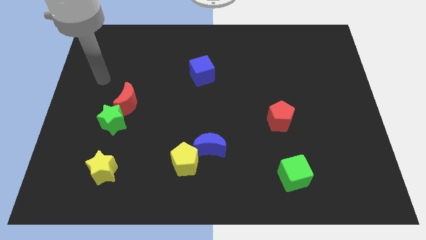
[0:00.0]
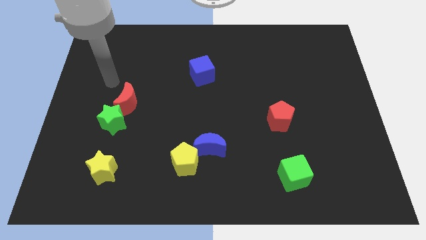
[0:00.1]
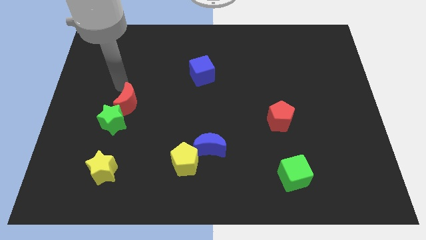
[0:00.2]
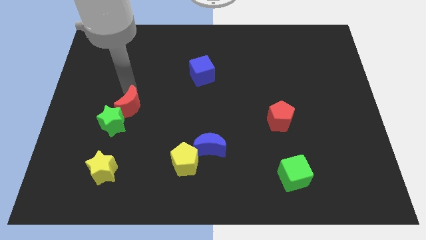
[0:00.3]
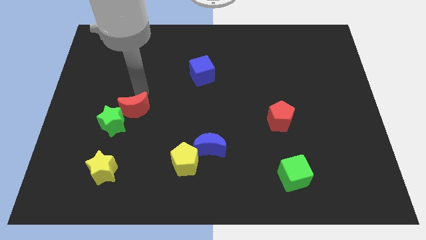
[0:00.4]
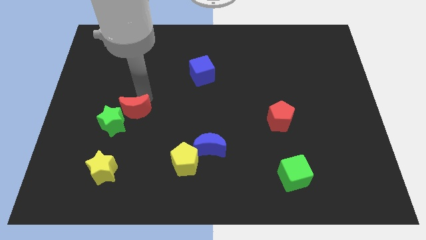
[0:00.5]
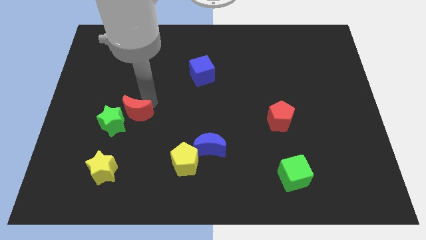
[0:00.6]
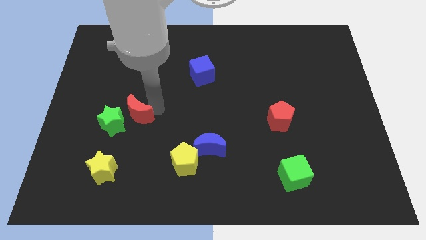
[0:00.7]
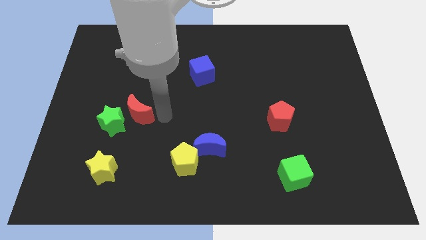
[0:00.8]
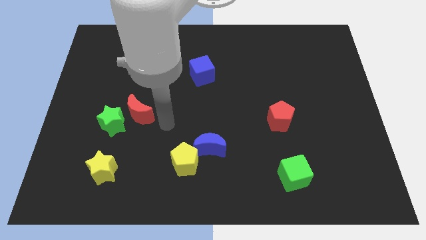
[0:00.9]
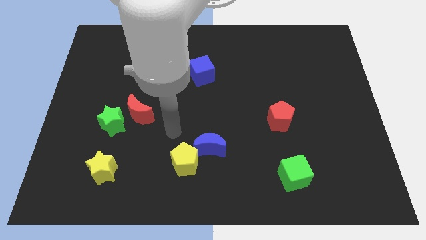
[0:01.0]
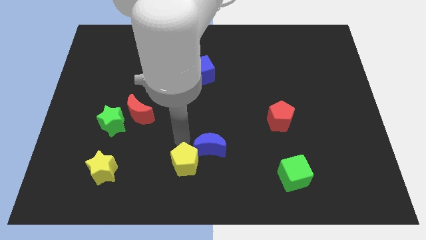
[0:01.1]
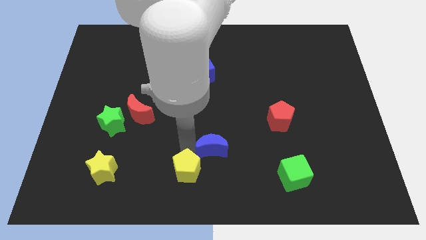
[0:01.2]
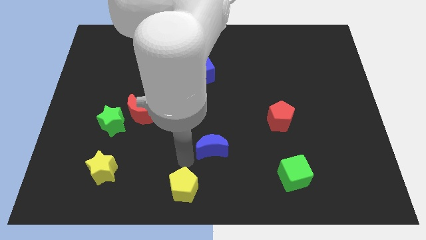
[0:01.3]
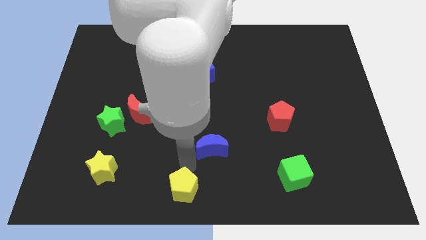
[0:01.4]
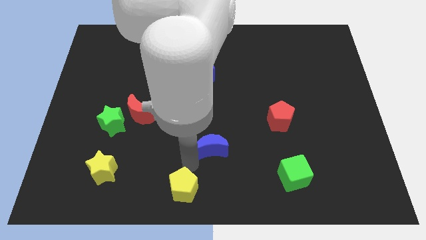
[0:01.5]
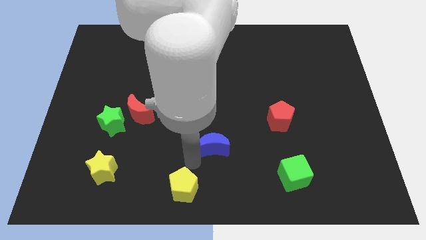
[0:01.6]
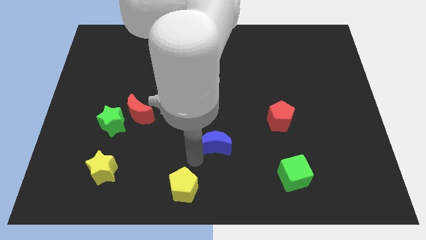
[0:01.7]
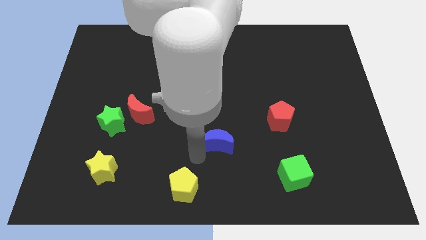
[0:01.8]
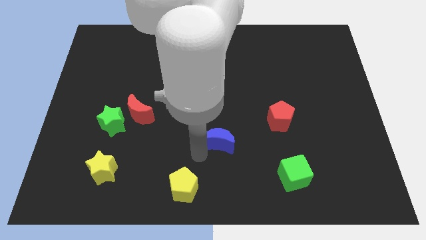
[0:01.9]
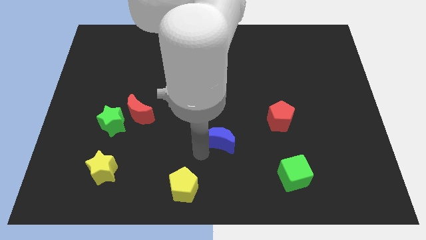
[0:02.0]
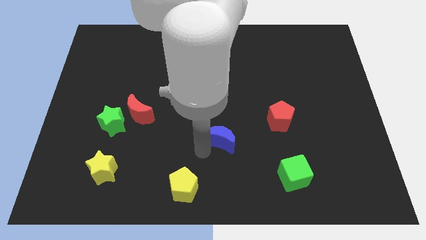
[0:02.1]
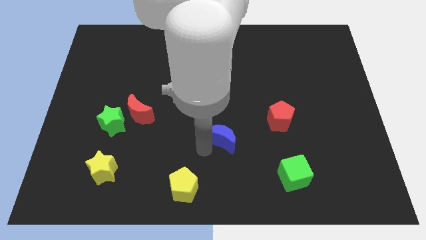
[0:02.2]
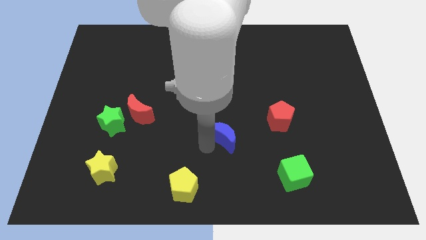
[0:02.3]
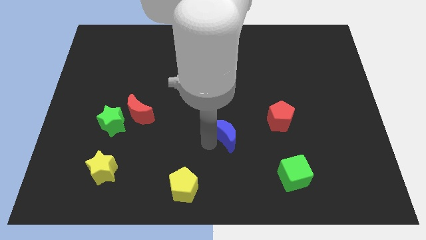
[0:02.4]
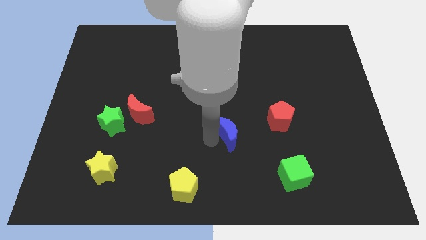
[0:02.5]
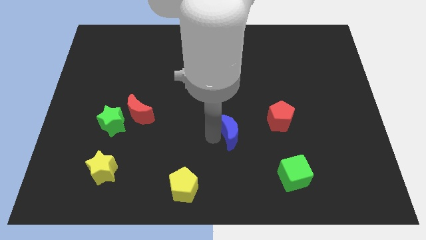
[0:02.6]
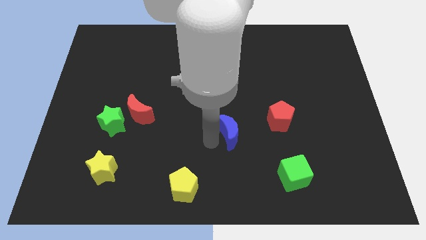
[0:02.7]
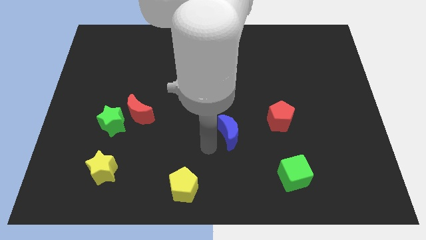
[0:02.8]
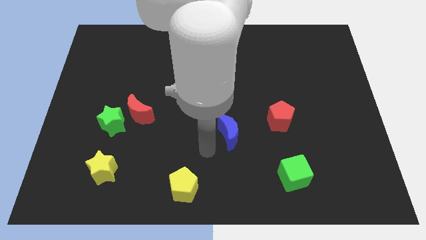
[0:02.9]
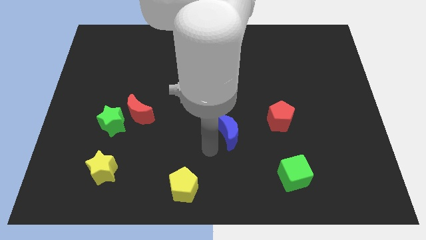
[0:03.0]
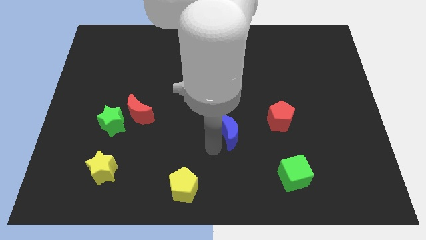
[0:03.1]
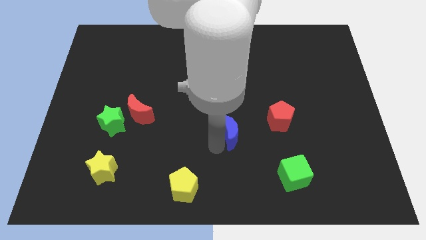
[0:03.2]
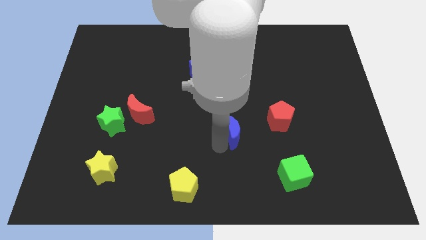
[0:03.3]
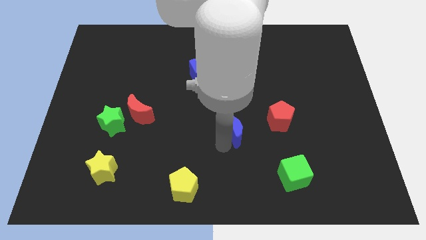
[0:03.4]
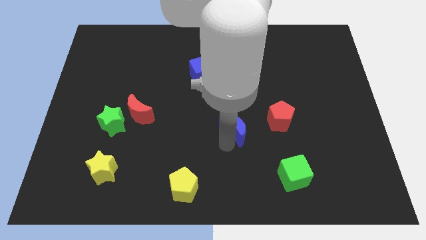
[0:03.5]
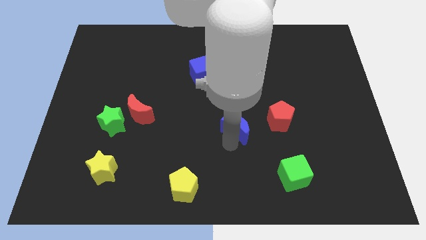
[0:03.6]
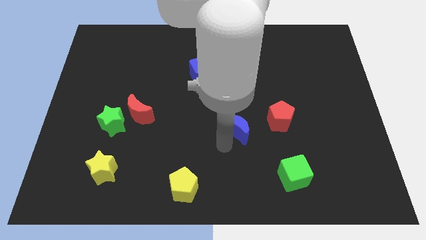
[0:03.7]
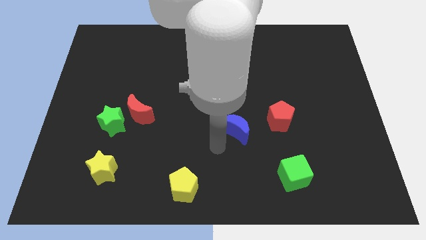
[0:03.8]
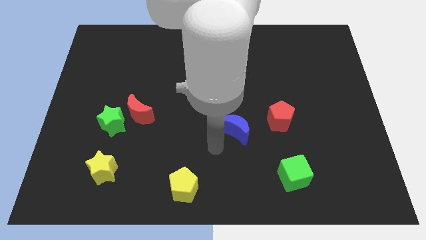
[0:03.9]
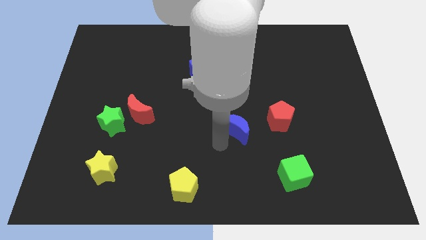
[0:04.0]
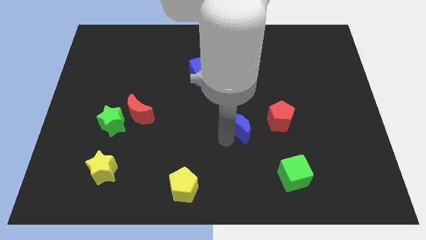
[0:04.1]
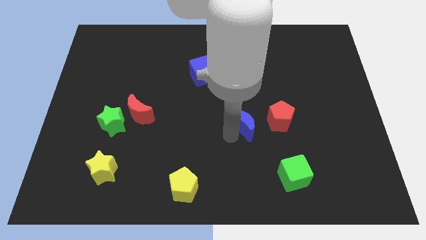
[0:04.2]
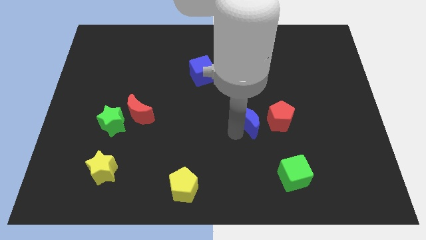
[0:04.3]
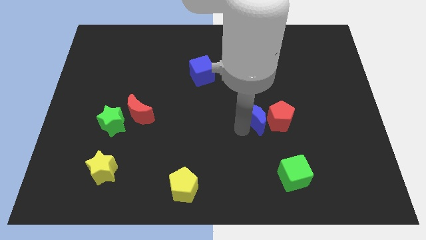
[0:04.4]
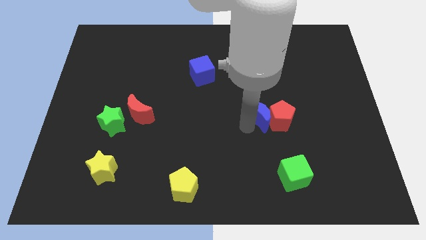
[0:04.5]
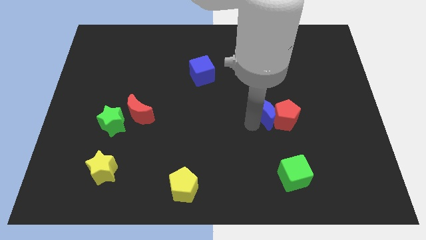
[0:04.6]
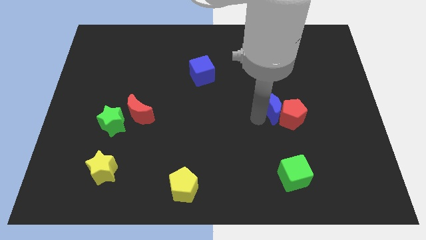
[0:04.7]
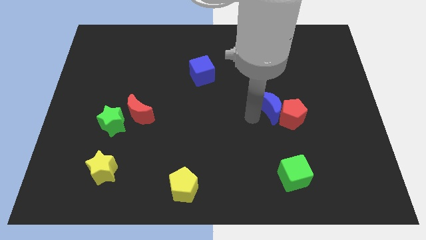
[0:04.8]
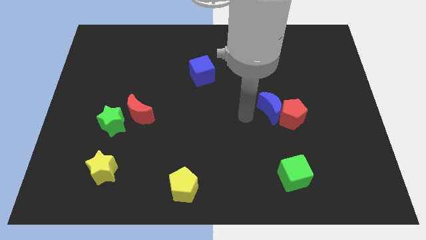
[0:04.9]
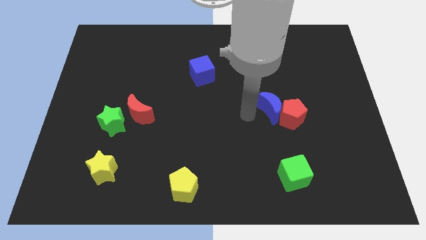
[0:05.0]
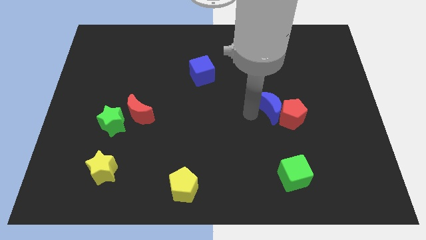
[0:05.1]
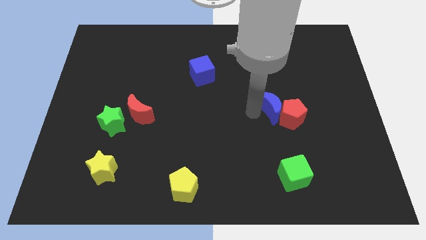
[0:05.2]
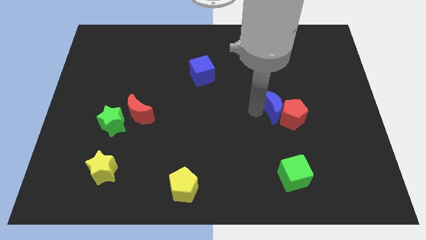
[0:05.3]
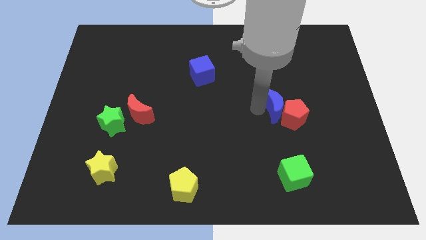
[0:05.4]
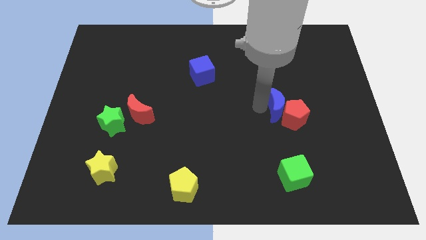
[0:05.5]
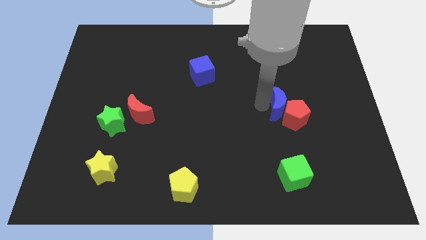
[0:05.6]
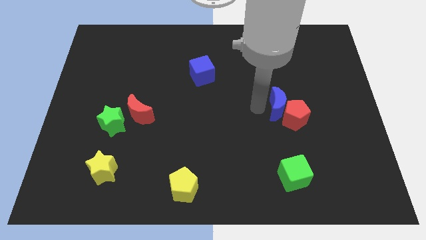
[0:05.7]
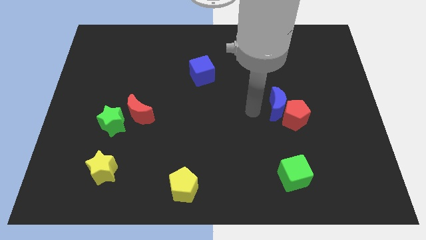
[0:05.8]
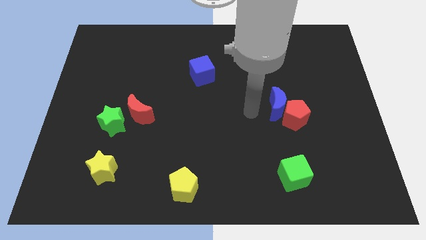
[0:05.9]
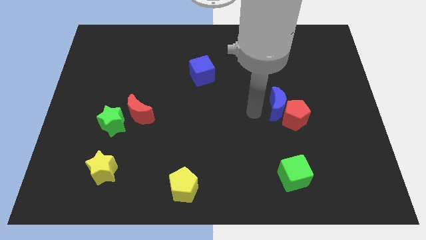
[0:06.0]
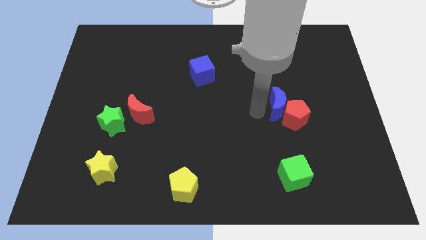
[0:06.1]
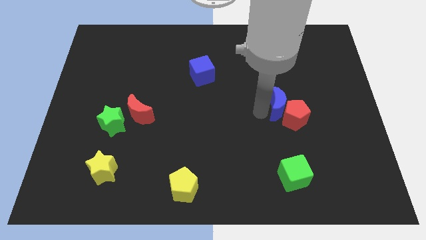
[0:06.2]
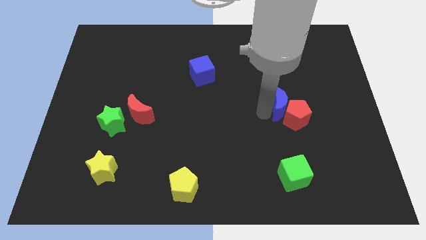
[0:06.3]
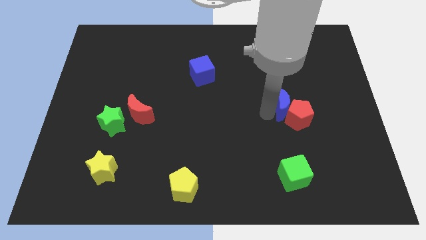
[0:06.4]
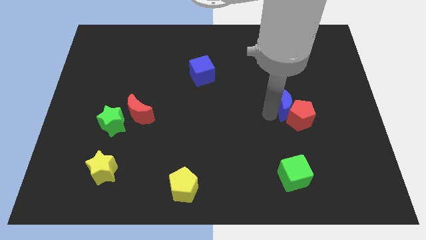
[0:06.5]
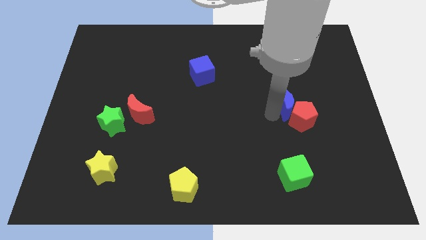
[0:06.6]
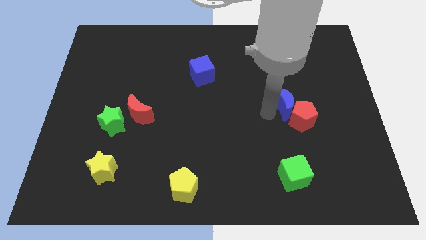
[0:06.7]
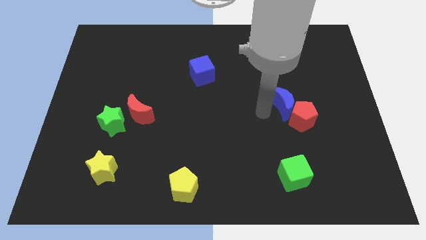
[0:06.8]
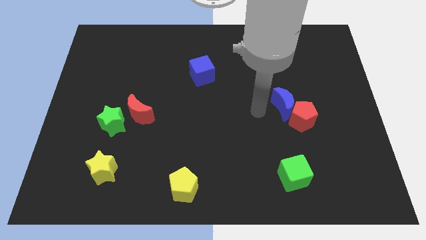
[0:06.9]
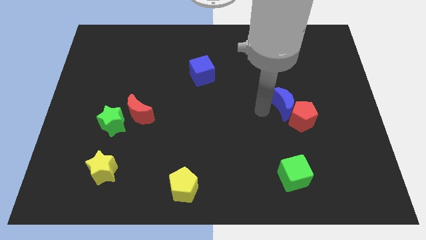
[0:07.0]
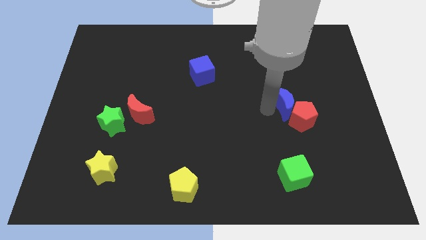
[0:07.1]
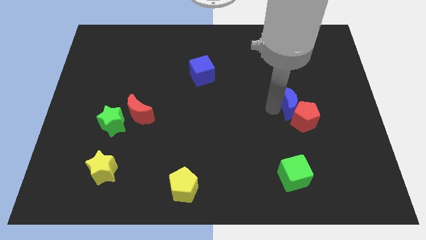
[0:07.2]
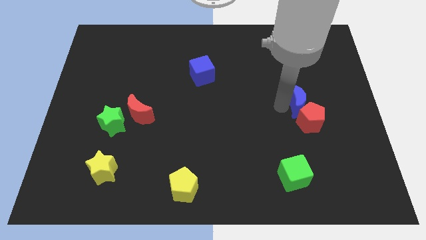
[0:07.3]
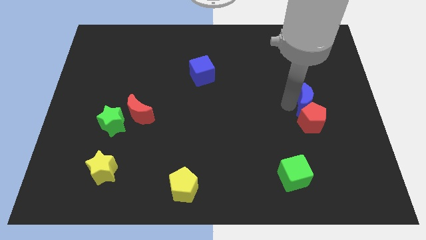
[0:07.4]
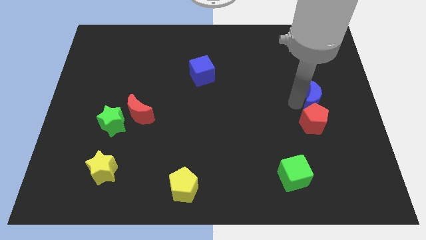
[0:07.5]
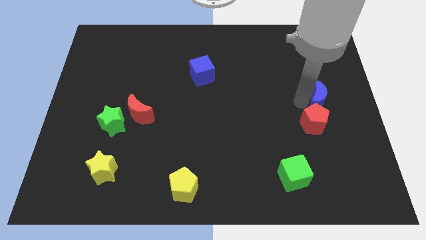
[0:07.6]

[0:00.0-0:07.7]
put the blue moon to the center right
